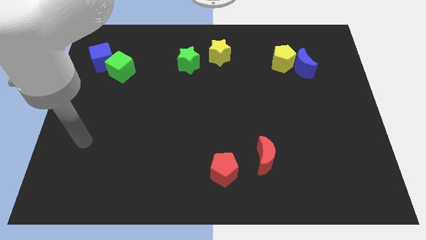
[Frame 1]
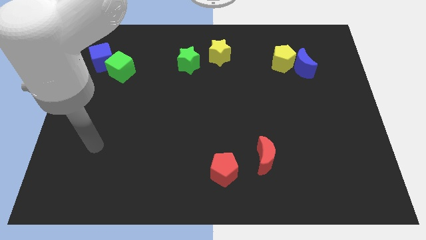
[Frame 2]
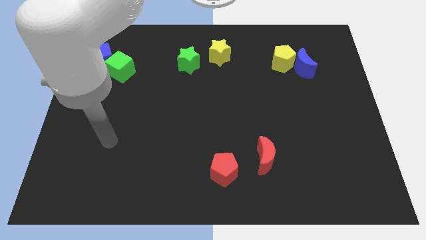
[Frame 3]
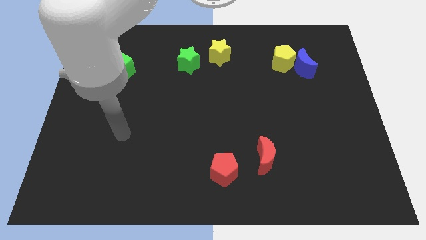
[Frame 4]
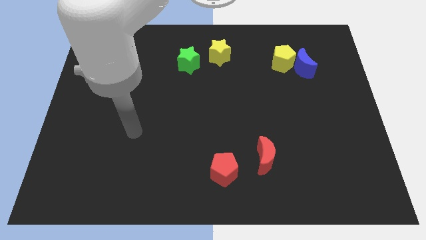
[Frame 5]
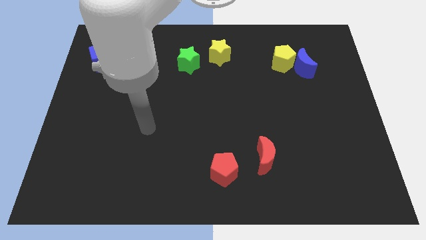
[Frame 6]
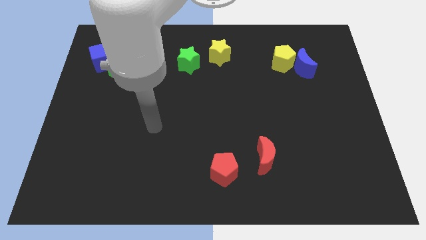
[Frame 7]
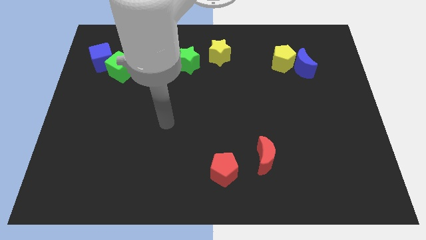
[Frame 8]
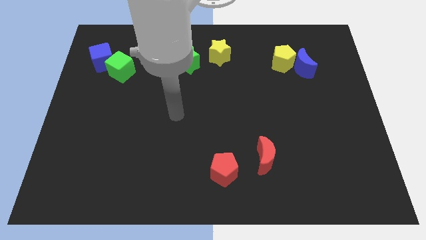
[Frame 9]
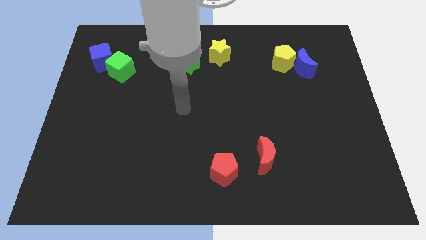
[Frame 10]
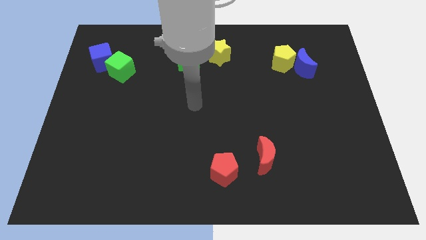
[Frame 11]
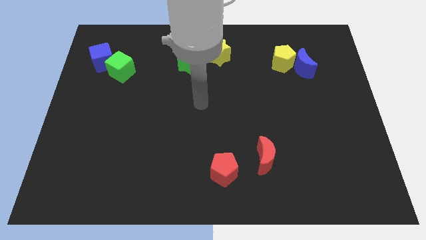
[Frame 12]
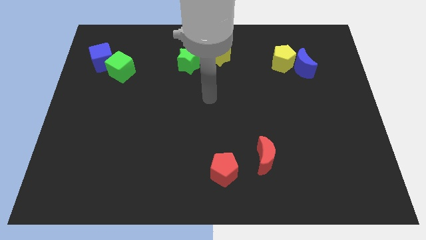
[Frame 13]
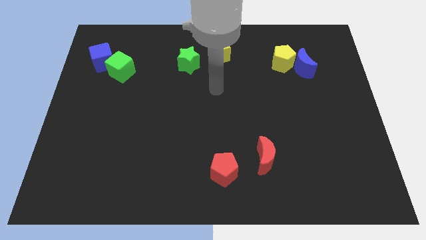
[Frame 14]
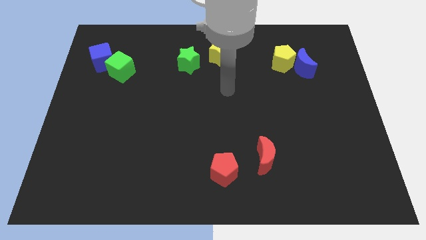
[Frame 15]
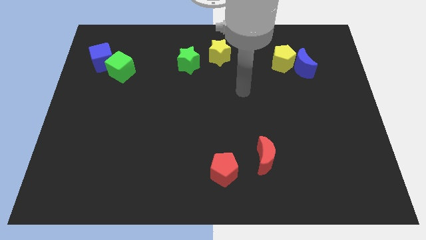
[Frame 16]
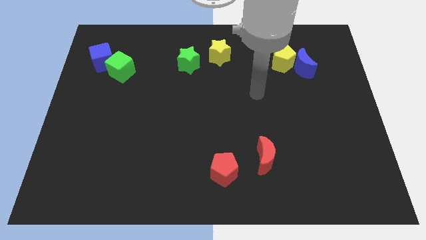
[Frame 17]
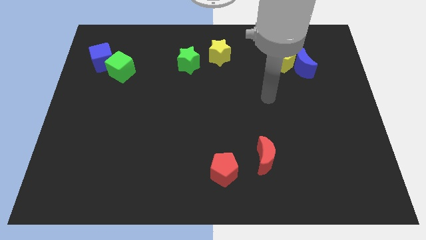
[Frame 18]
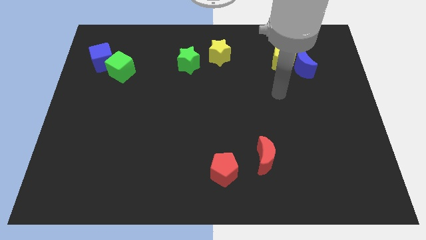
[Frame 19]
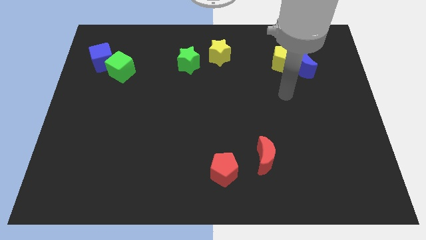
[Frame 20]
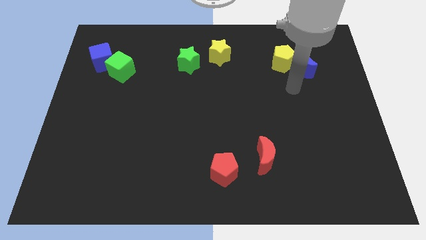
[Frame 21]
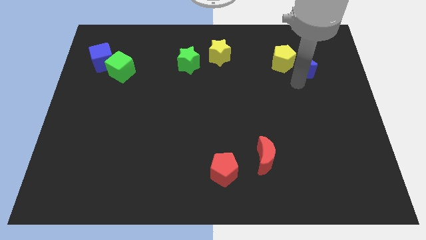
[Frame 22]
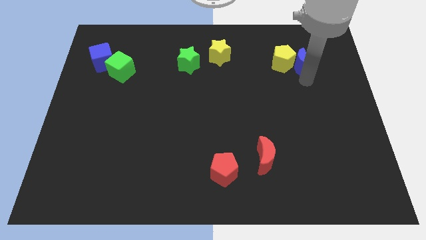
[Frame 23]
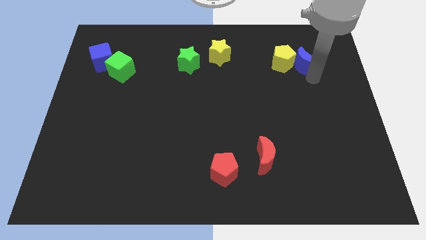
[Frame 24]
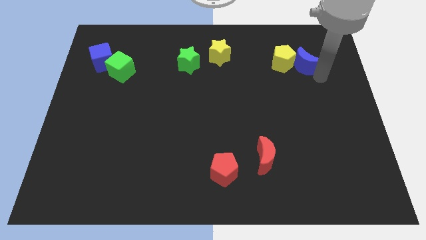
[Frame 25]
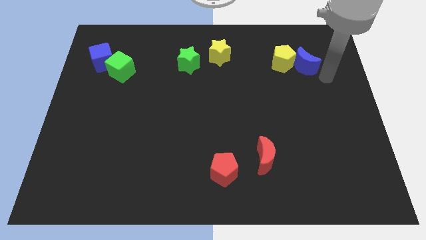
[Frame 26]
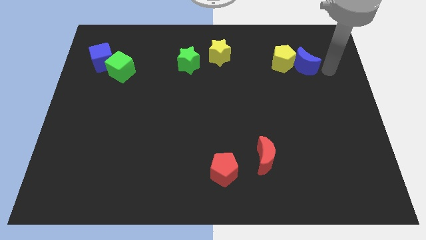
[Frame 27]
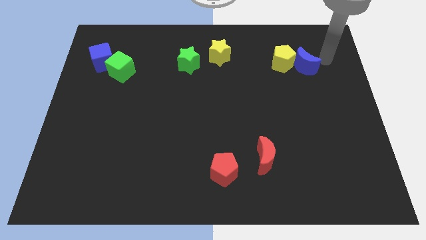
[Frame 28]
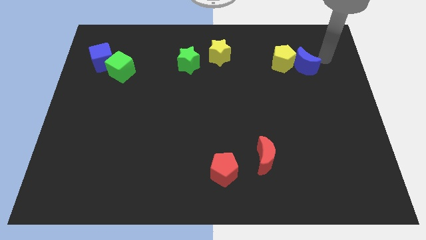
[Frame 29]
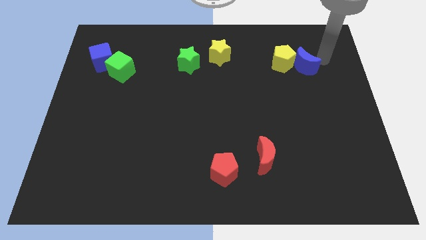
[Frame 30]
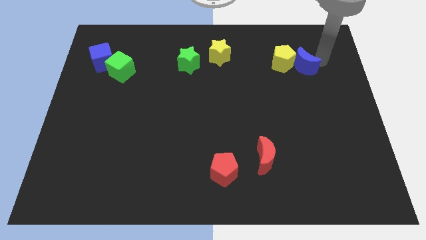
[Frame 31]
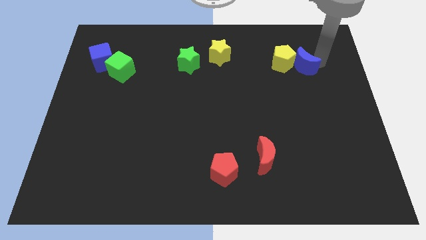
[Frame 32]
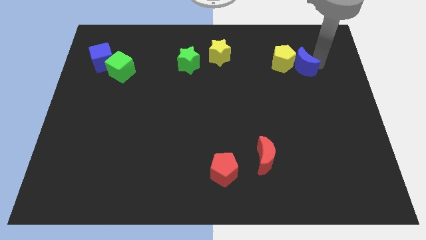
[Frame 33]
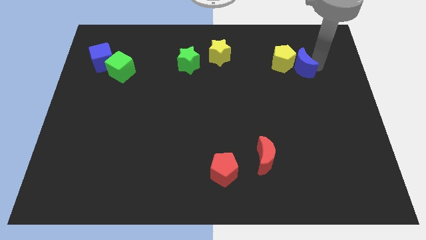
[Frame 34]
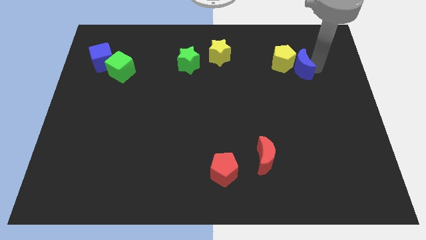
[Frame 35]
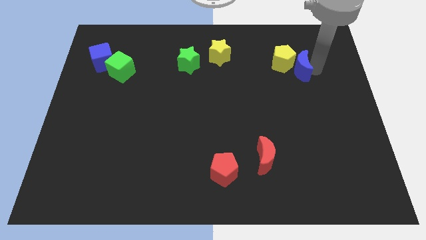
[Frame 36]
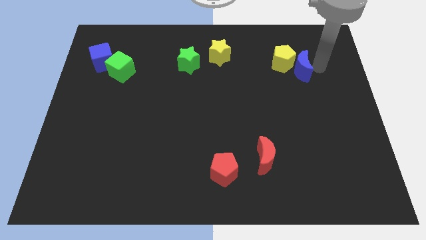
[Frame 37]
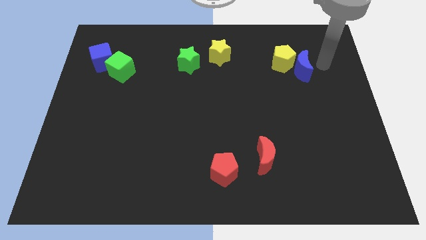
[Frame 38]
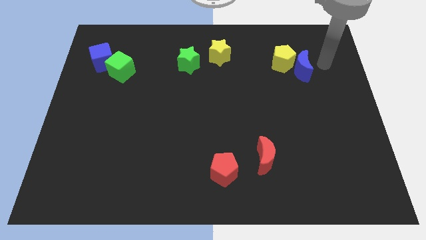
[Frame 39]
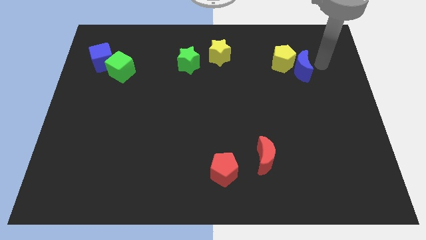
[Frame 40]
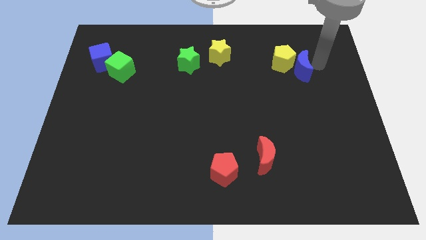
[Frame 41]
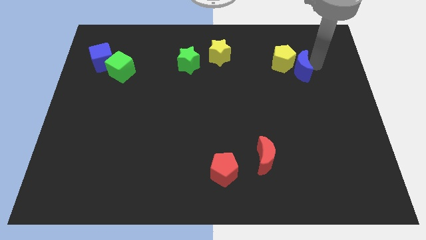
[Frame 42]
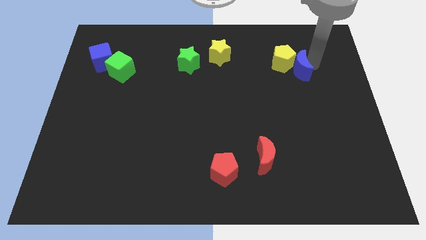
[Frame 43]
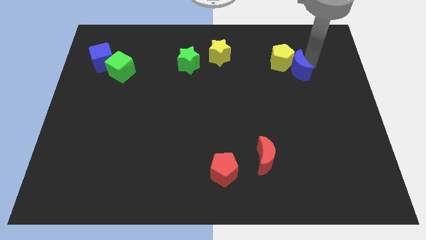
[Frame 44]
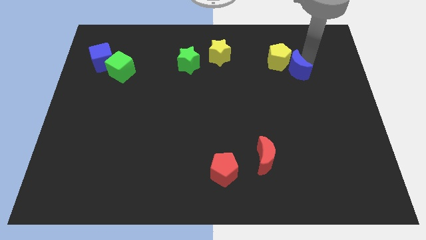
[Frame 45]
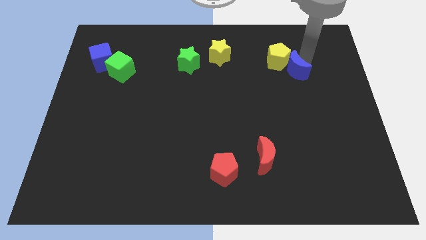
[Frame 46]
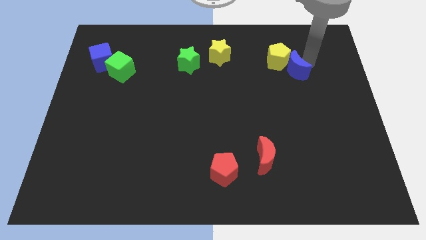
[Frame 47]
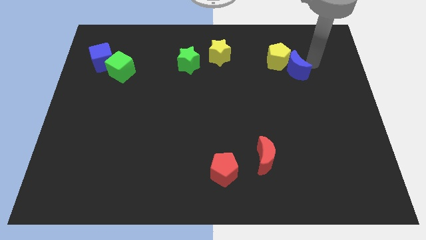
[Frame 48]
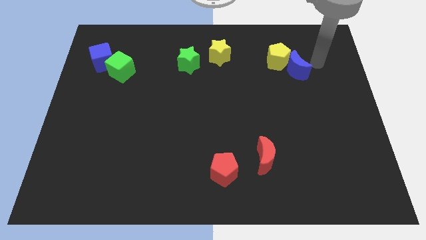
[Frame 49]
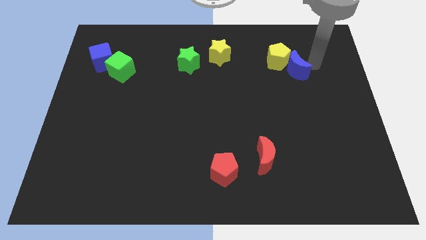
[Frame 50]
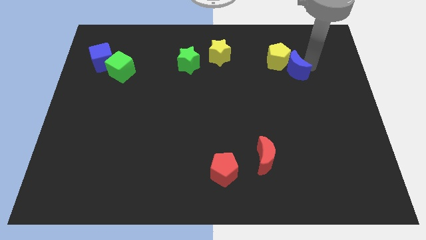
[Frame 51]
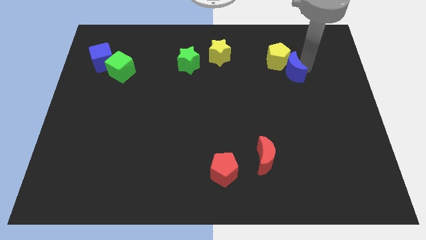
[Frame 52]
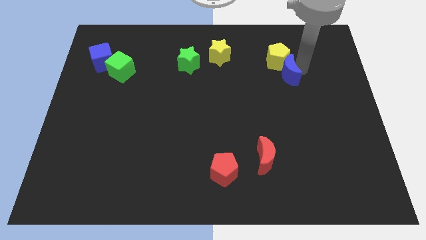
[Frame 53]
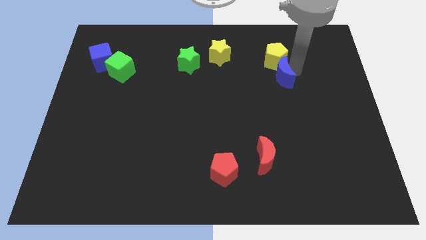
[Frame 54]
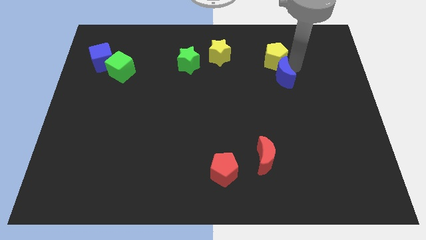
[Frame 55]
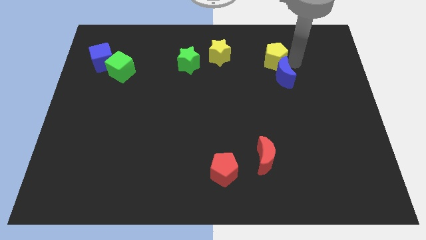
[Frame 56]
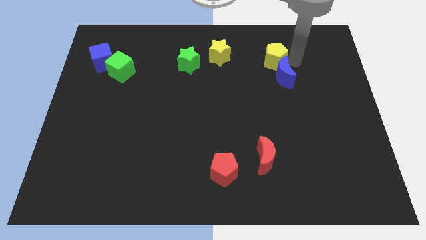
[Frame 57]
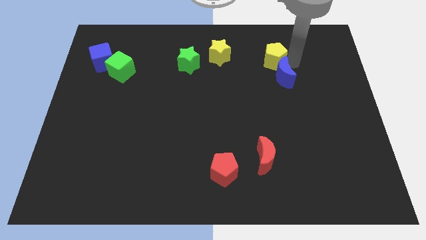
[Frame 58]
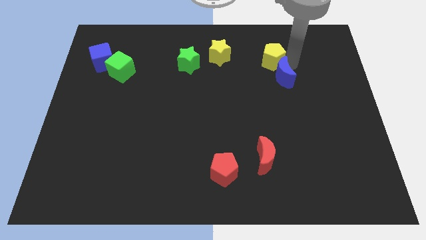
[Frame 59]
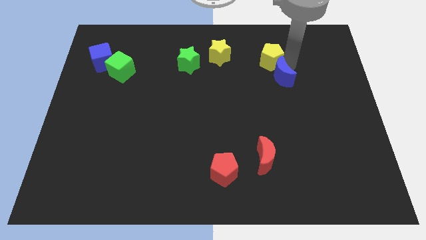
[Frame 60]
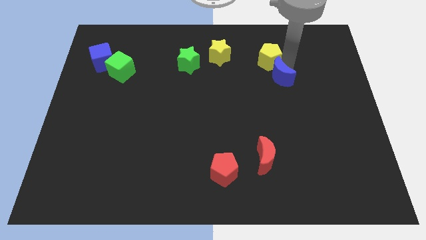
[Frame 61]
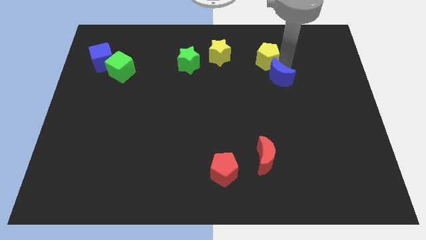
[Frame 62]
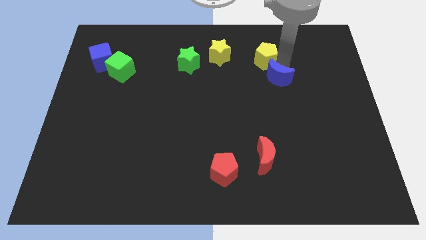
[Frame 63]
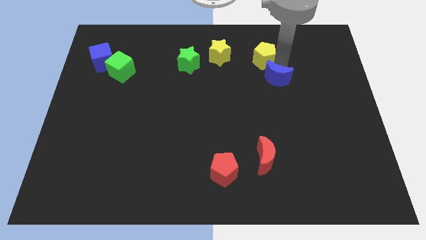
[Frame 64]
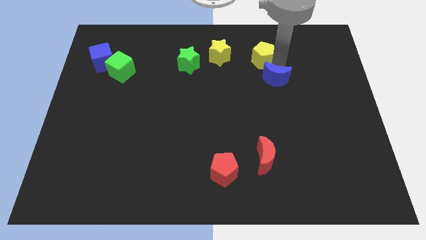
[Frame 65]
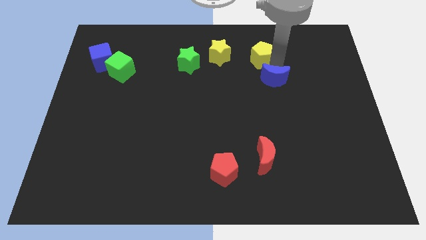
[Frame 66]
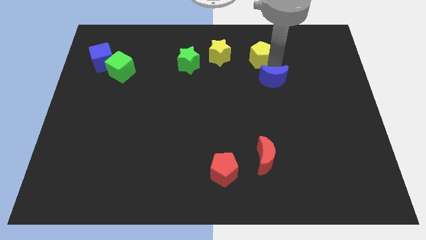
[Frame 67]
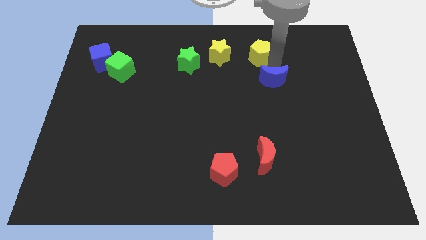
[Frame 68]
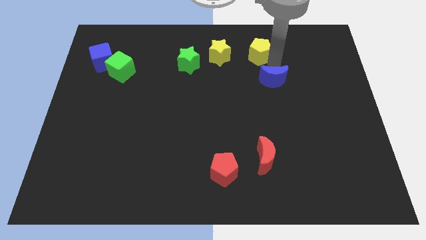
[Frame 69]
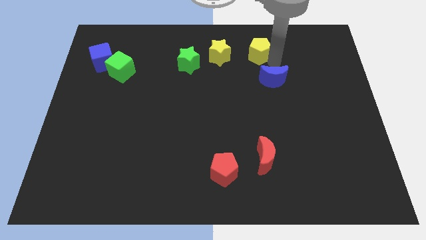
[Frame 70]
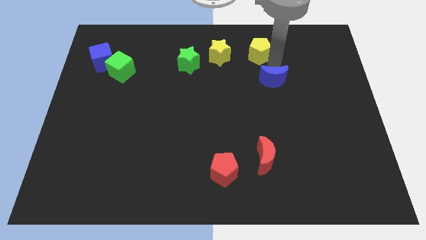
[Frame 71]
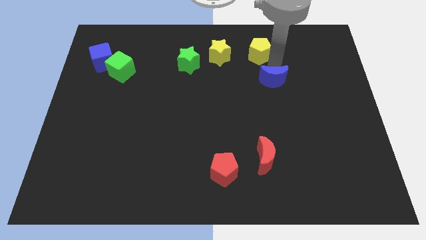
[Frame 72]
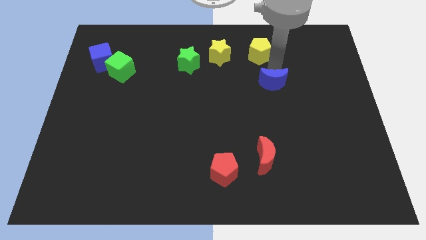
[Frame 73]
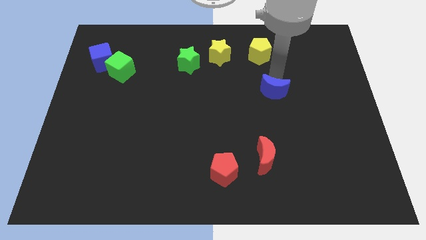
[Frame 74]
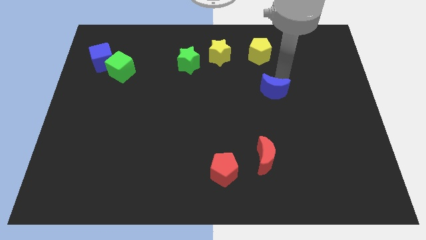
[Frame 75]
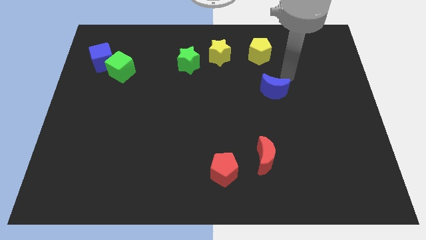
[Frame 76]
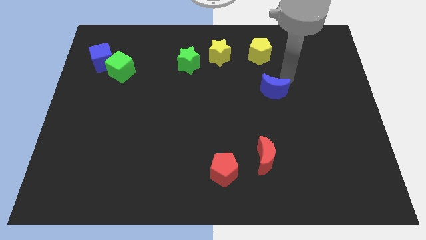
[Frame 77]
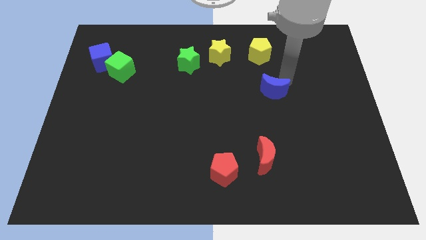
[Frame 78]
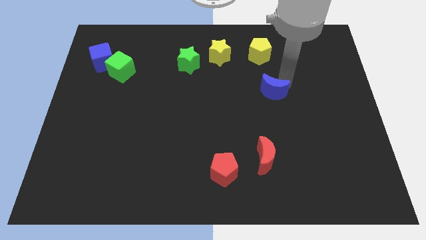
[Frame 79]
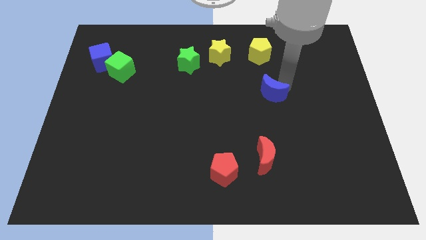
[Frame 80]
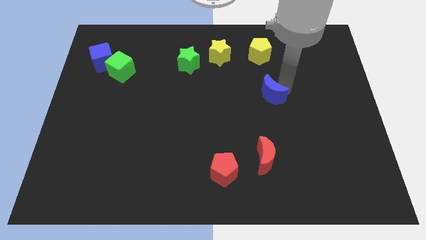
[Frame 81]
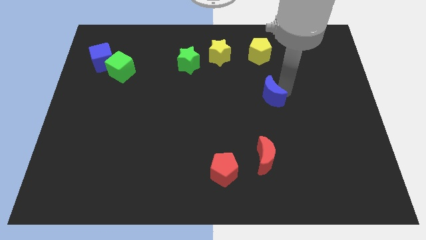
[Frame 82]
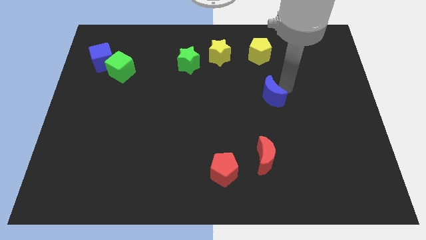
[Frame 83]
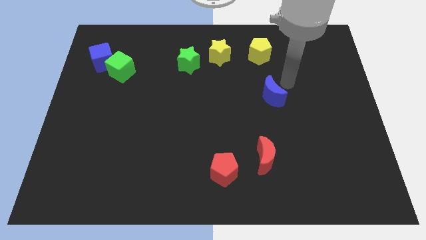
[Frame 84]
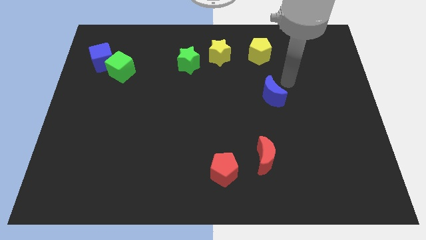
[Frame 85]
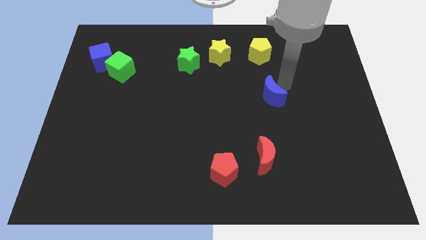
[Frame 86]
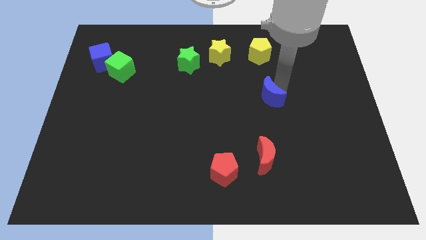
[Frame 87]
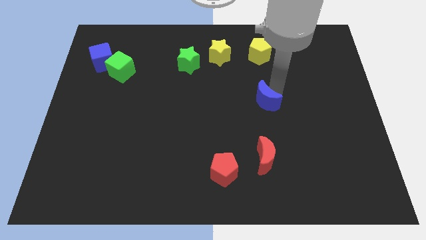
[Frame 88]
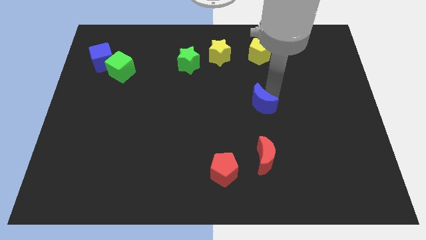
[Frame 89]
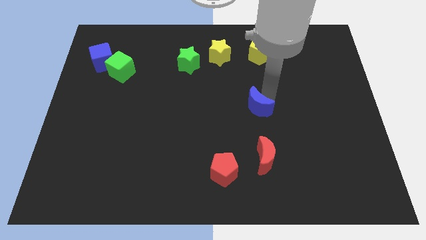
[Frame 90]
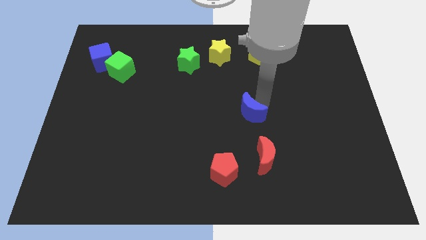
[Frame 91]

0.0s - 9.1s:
push the blue moon downwards and then to the left
